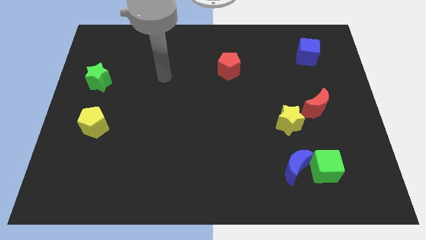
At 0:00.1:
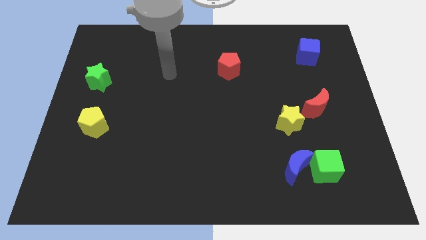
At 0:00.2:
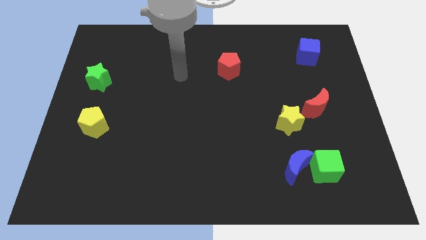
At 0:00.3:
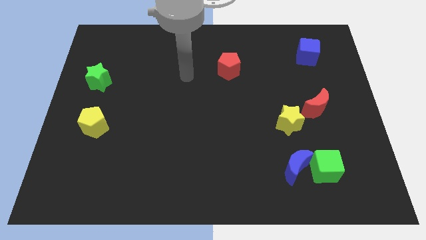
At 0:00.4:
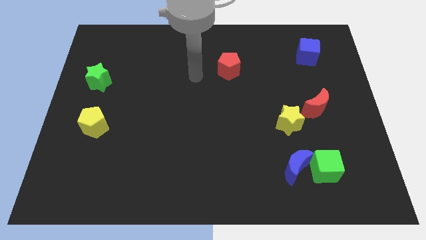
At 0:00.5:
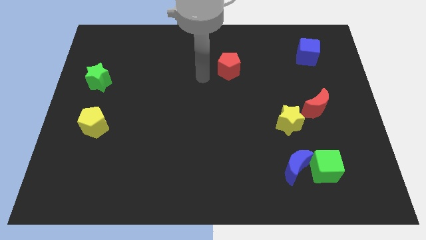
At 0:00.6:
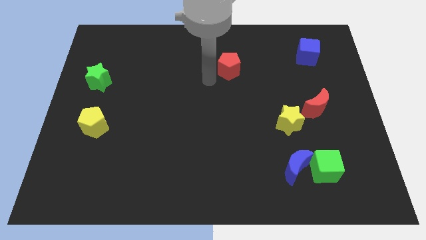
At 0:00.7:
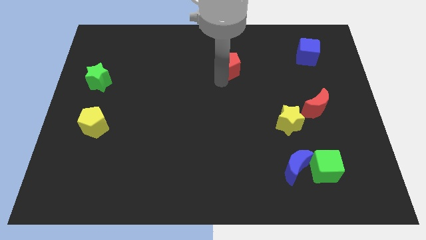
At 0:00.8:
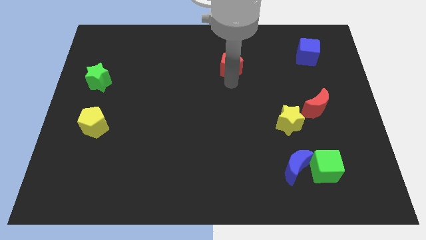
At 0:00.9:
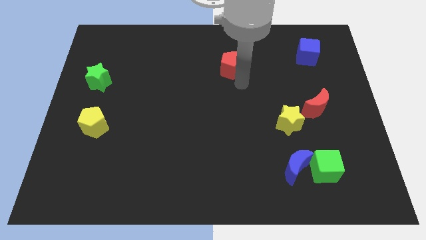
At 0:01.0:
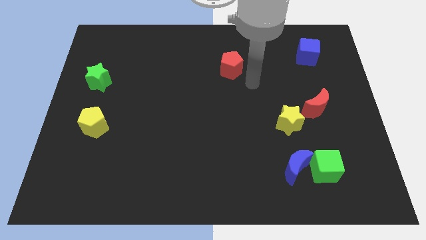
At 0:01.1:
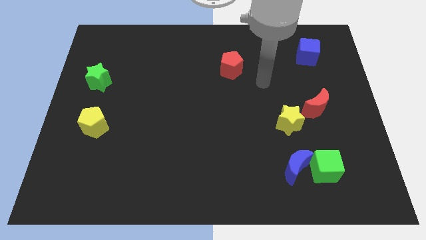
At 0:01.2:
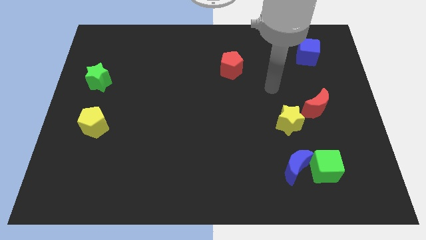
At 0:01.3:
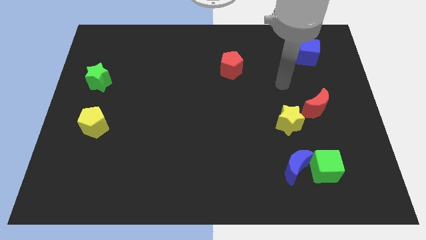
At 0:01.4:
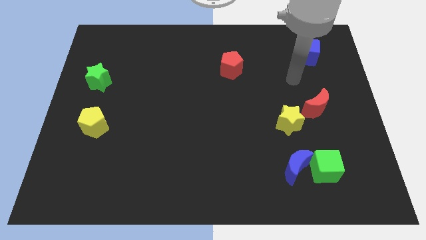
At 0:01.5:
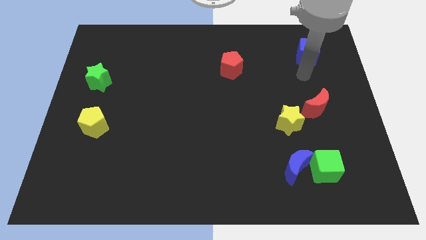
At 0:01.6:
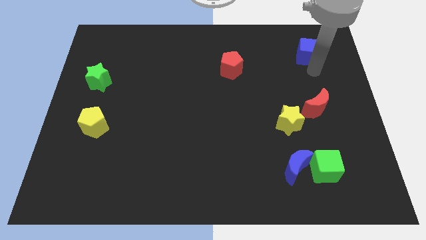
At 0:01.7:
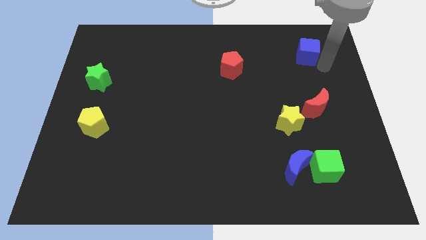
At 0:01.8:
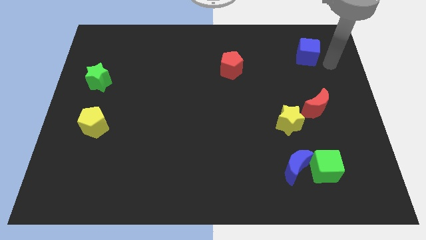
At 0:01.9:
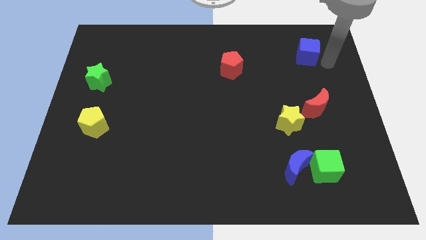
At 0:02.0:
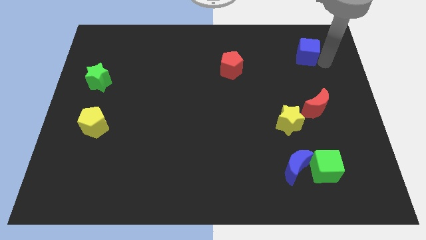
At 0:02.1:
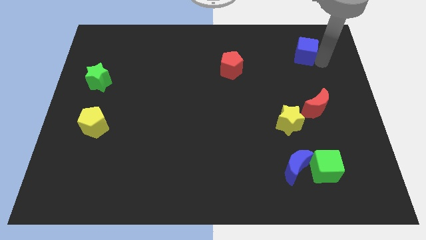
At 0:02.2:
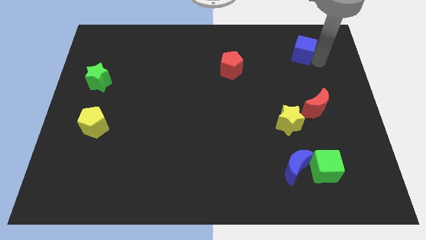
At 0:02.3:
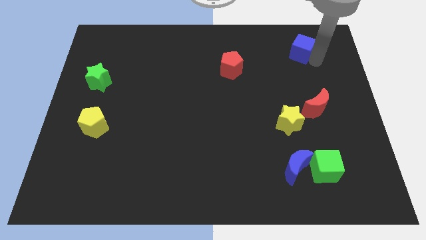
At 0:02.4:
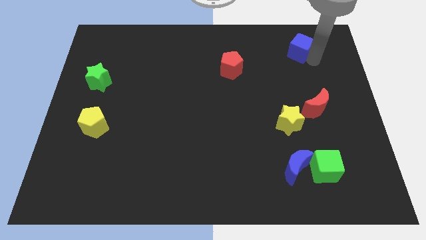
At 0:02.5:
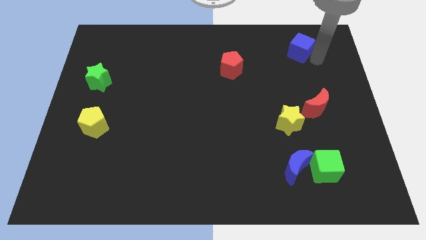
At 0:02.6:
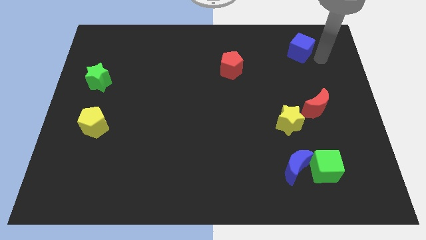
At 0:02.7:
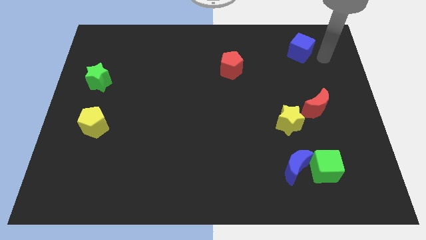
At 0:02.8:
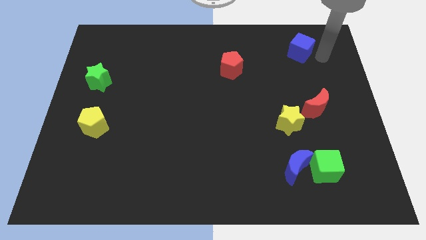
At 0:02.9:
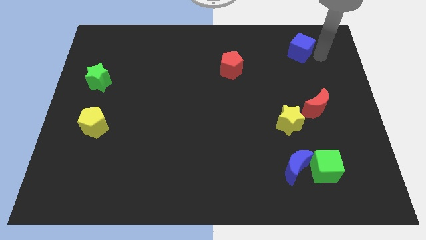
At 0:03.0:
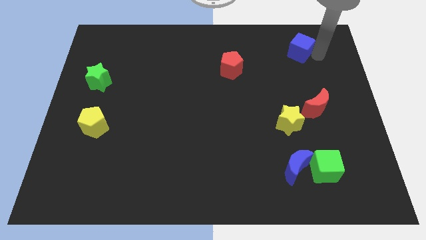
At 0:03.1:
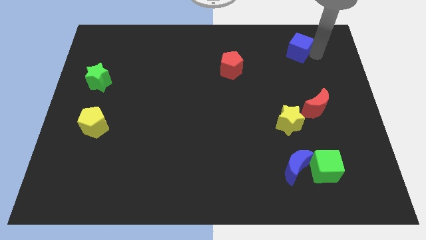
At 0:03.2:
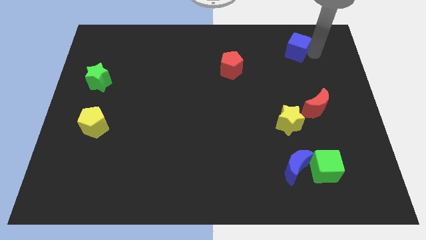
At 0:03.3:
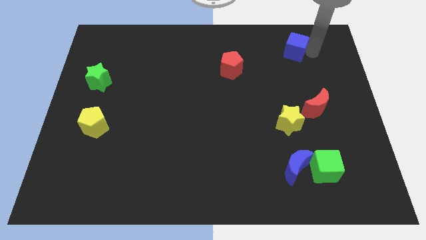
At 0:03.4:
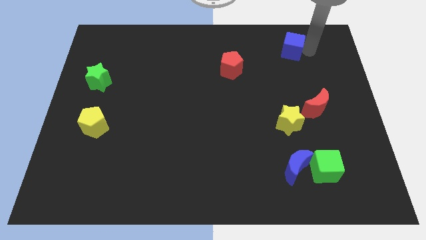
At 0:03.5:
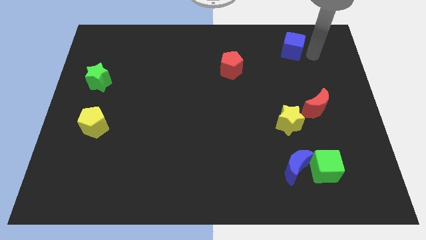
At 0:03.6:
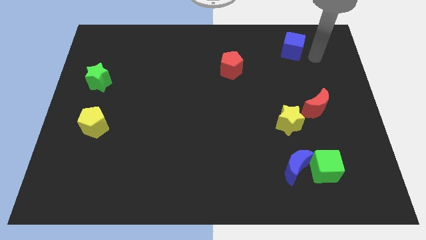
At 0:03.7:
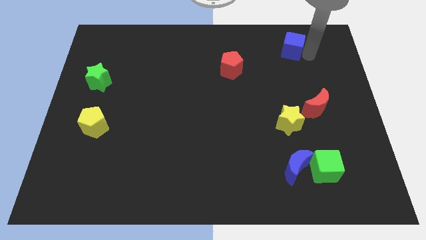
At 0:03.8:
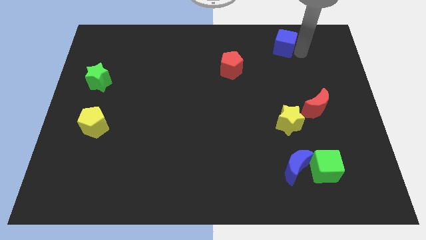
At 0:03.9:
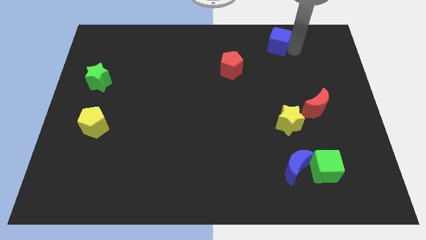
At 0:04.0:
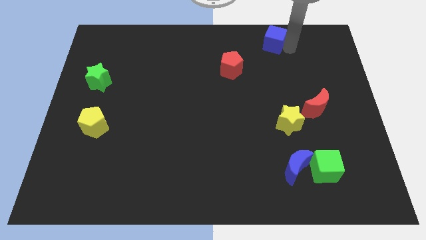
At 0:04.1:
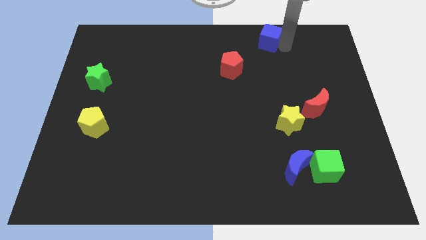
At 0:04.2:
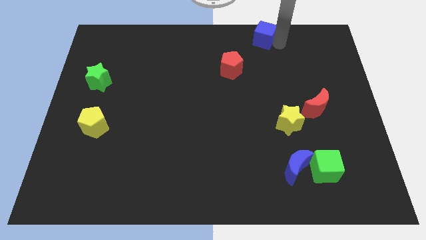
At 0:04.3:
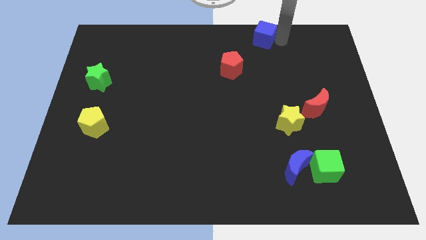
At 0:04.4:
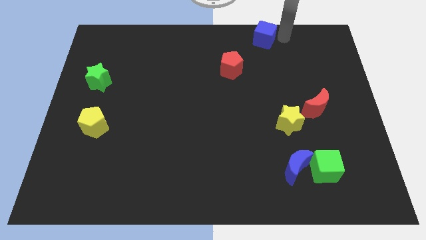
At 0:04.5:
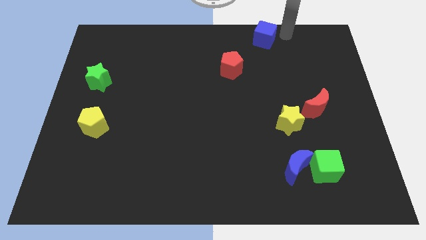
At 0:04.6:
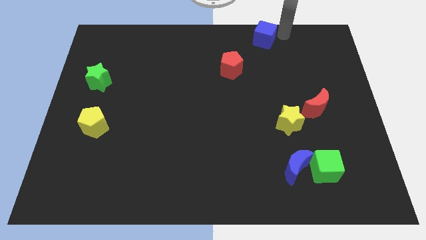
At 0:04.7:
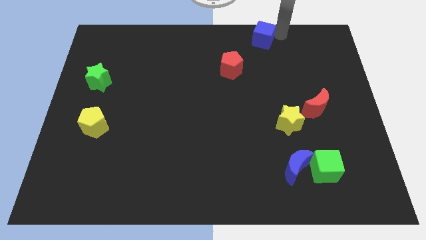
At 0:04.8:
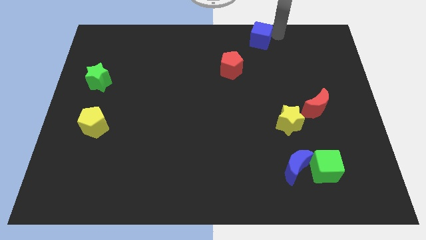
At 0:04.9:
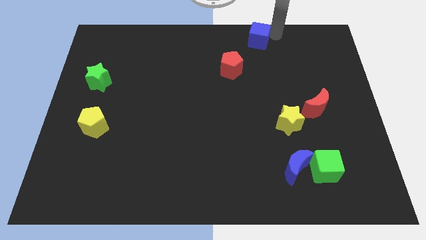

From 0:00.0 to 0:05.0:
put the blue cube to the top side

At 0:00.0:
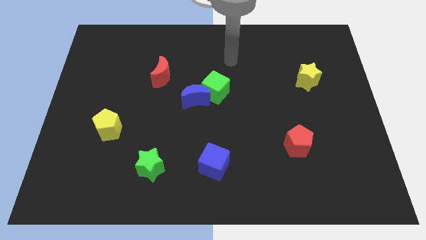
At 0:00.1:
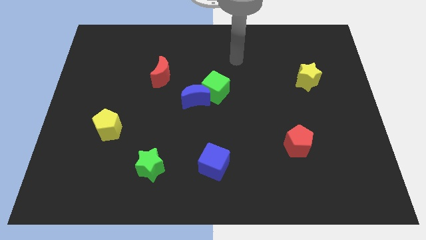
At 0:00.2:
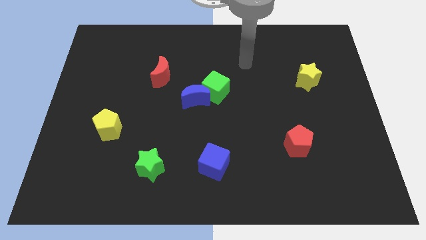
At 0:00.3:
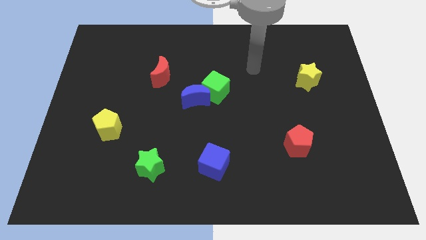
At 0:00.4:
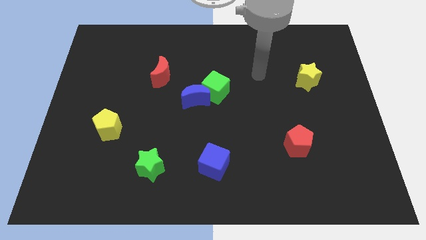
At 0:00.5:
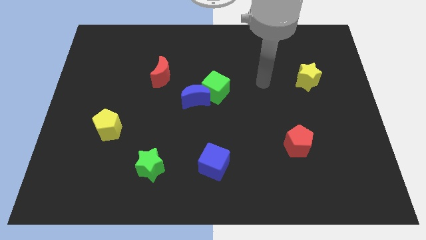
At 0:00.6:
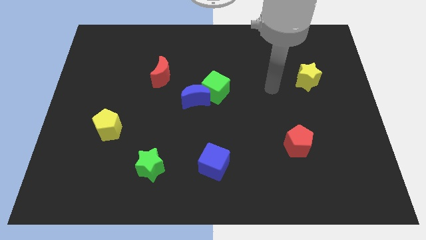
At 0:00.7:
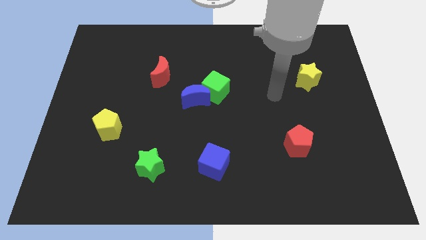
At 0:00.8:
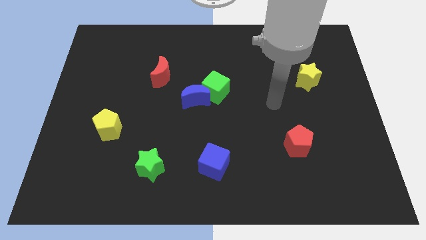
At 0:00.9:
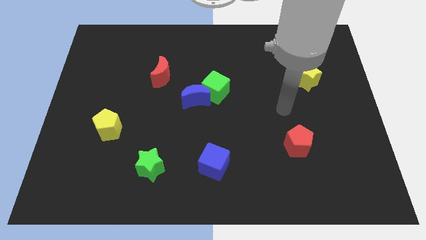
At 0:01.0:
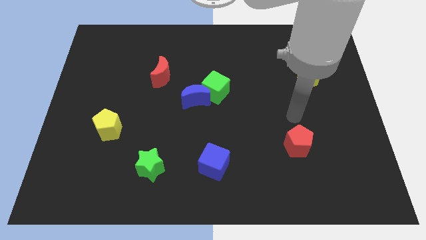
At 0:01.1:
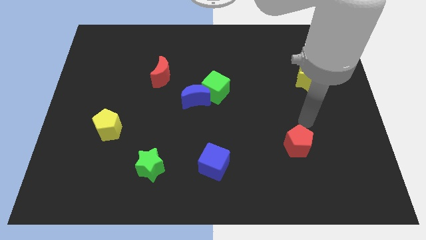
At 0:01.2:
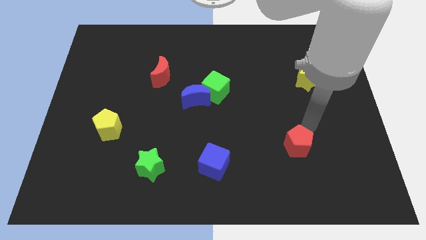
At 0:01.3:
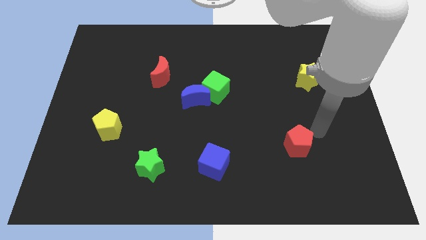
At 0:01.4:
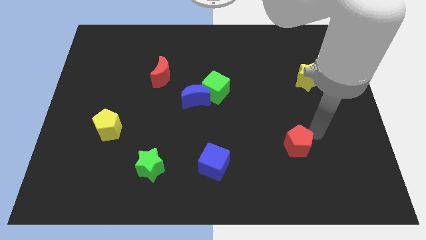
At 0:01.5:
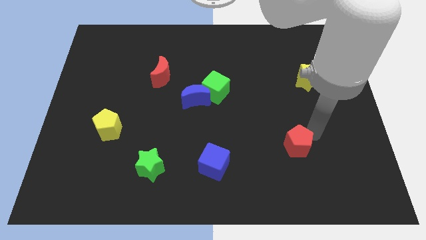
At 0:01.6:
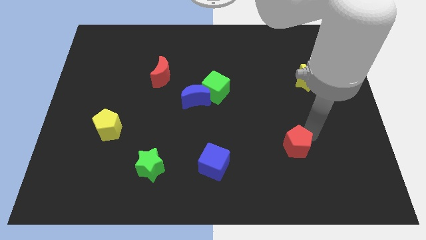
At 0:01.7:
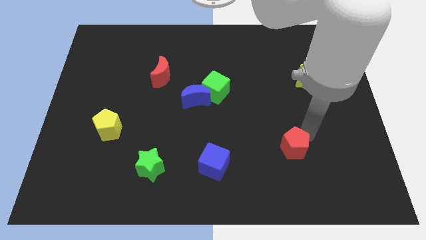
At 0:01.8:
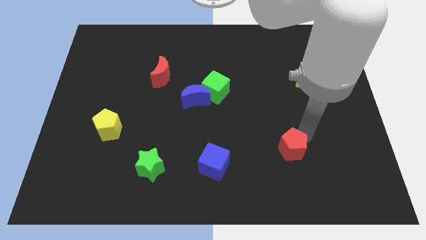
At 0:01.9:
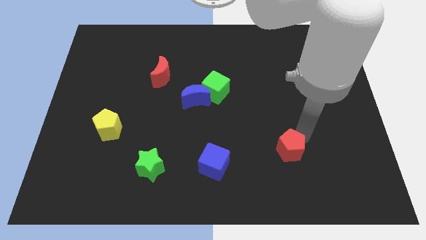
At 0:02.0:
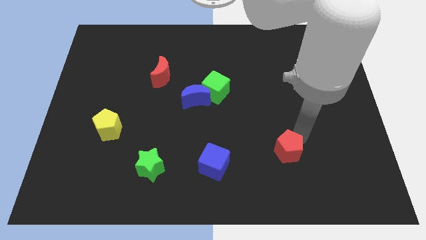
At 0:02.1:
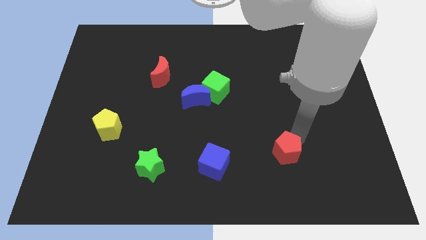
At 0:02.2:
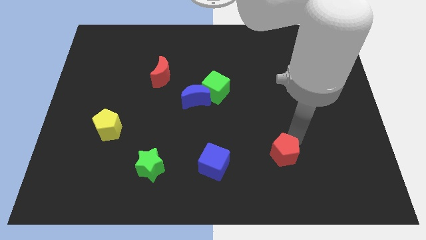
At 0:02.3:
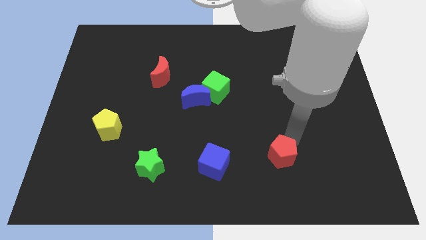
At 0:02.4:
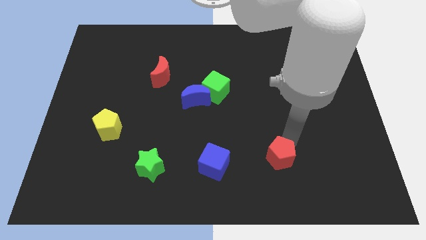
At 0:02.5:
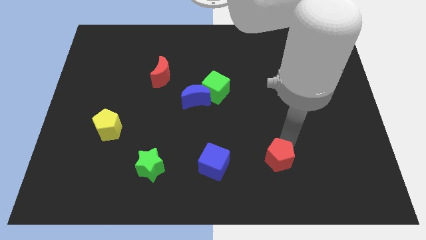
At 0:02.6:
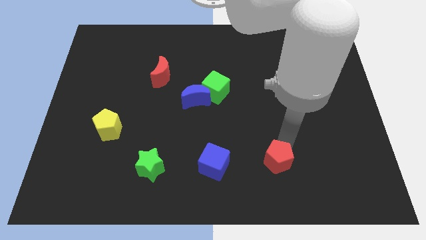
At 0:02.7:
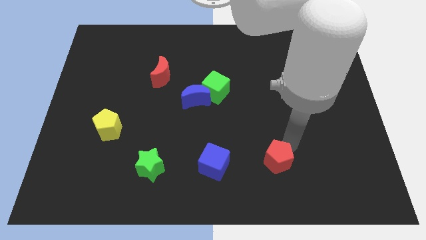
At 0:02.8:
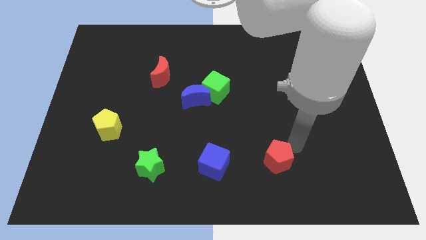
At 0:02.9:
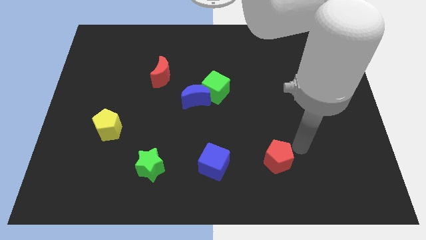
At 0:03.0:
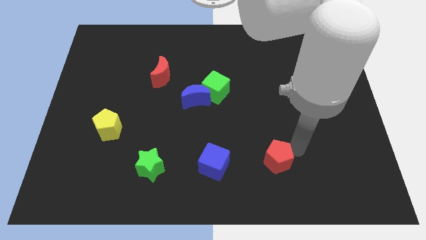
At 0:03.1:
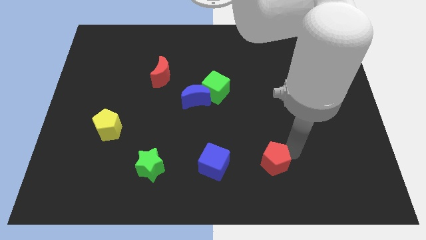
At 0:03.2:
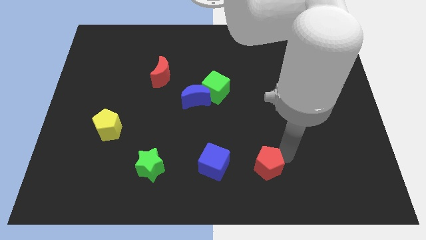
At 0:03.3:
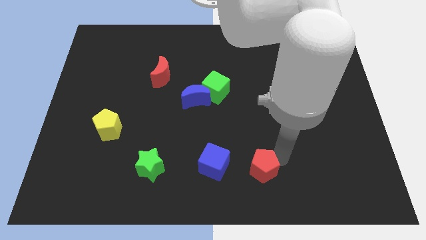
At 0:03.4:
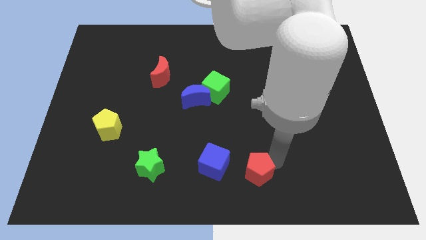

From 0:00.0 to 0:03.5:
put the red pentagon to the bottom
